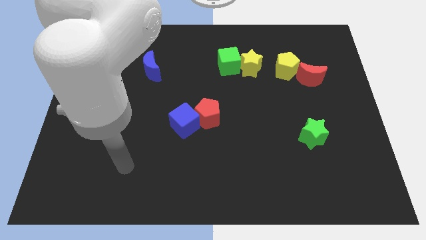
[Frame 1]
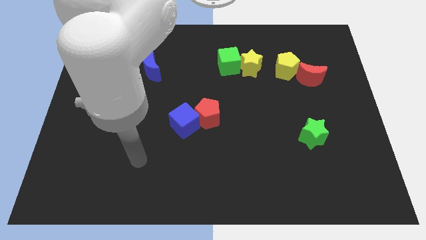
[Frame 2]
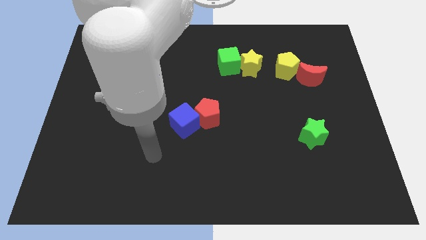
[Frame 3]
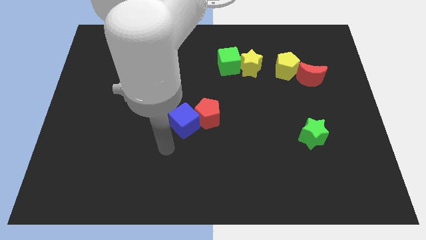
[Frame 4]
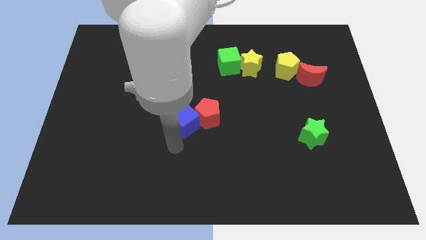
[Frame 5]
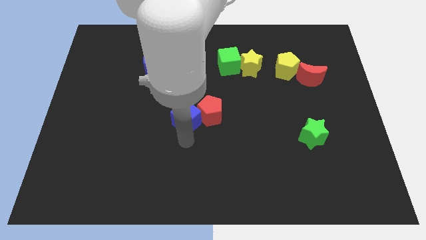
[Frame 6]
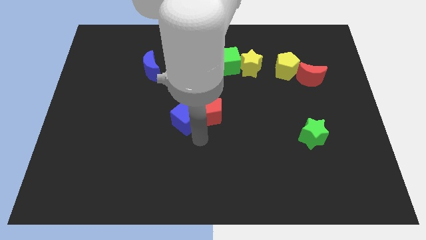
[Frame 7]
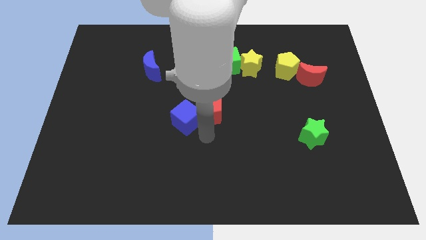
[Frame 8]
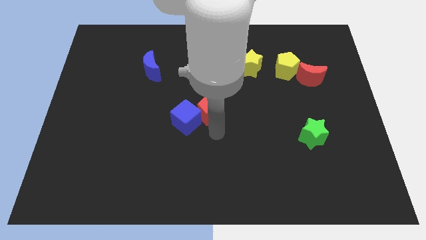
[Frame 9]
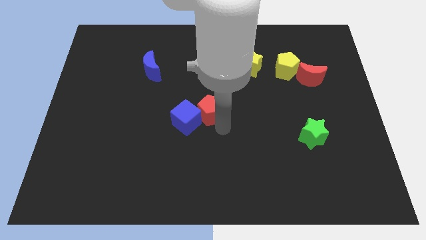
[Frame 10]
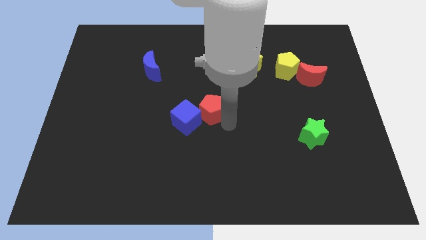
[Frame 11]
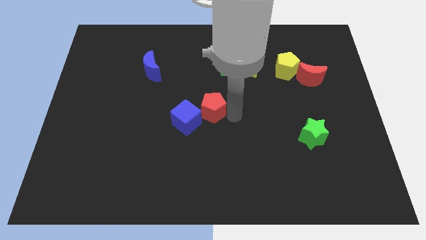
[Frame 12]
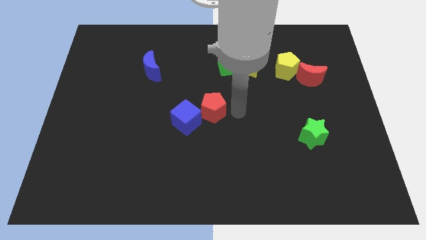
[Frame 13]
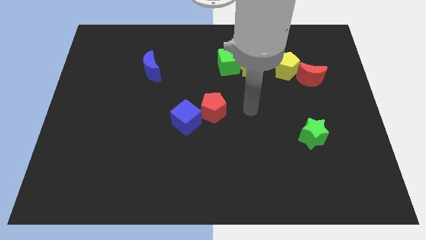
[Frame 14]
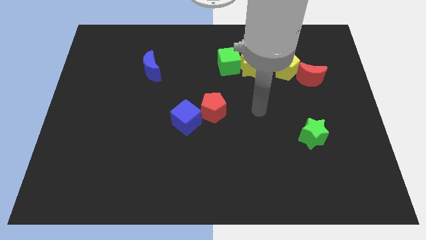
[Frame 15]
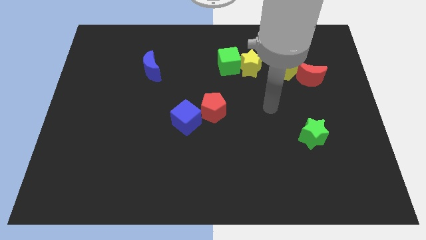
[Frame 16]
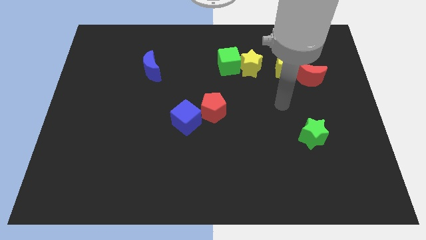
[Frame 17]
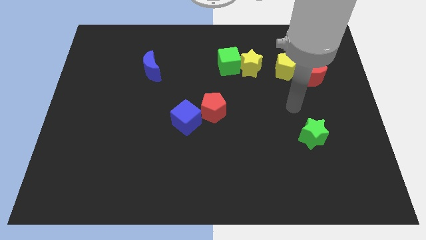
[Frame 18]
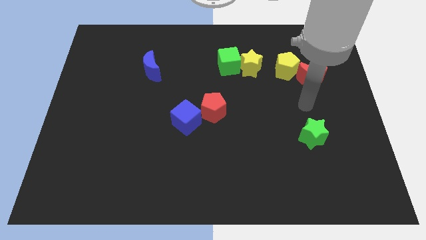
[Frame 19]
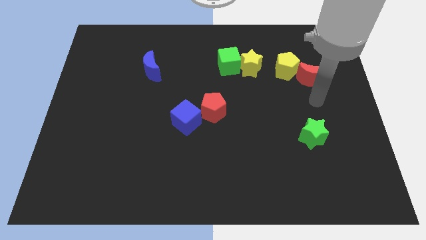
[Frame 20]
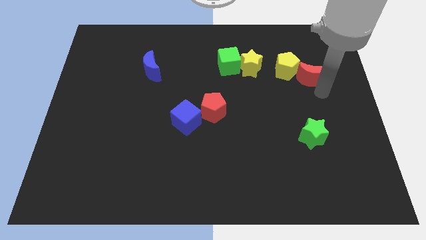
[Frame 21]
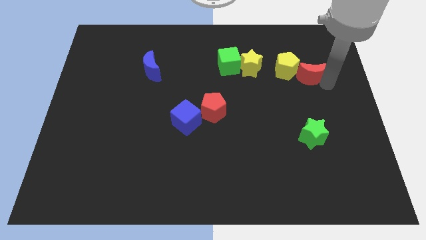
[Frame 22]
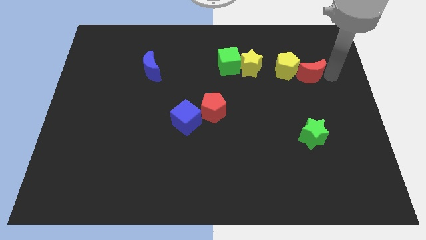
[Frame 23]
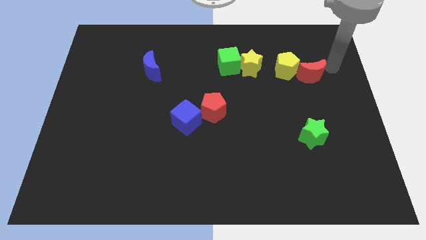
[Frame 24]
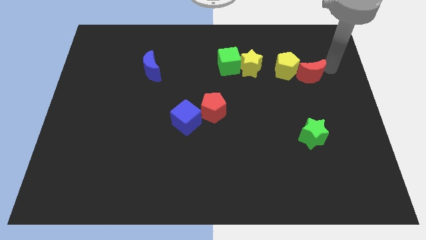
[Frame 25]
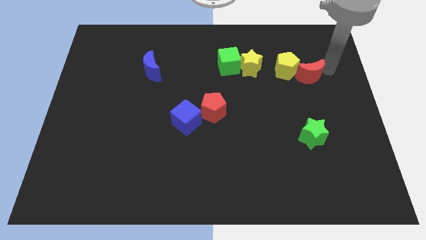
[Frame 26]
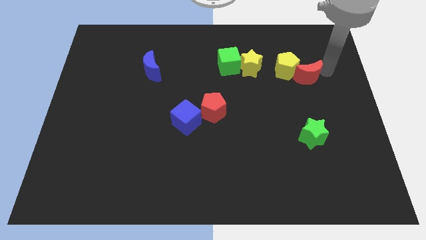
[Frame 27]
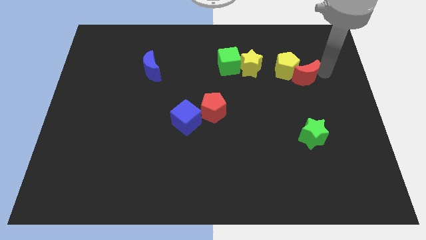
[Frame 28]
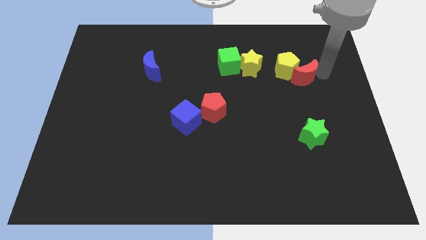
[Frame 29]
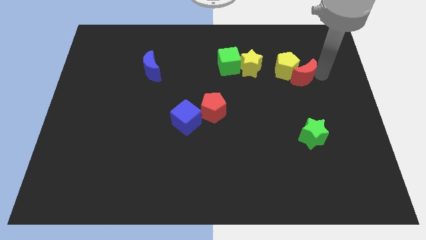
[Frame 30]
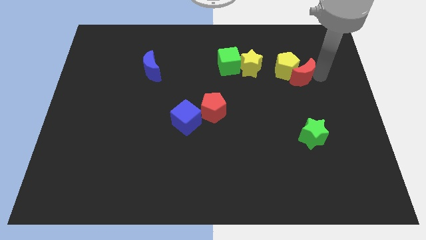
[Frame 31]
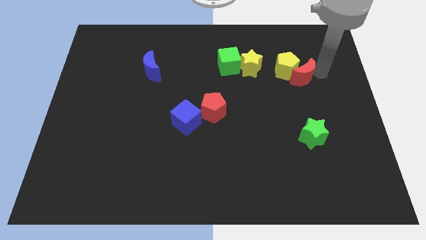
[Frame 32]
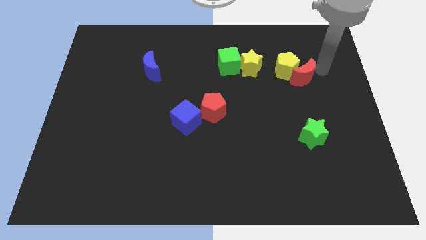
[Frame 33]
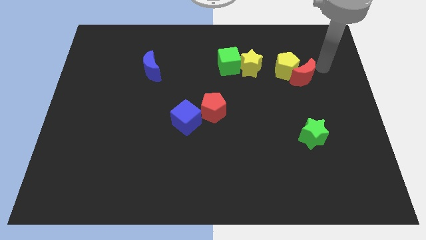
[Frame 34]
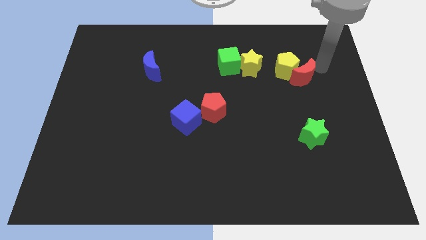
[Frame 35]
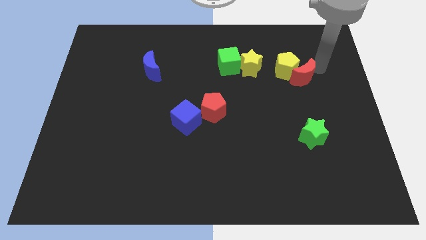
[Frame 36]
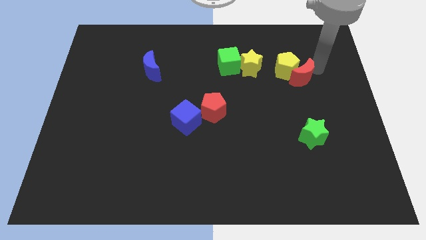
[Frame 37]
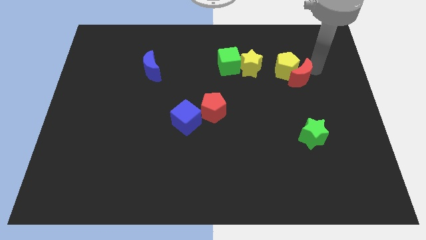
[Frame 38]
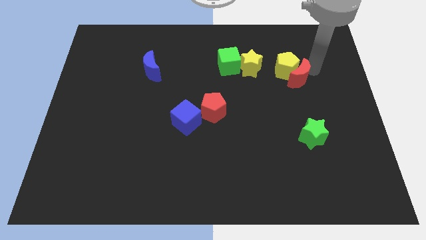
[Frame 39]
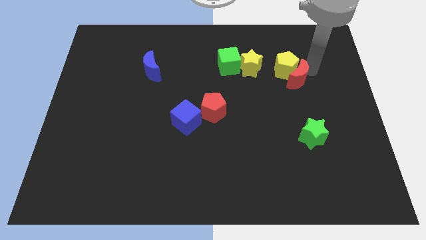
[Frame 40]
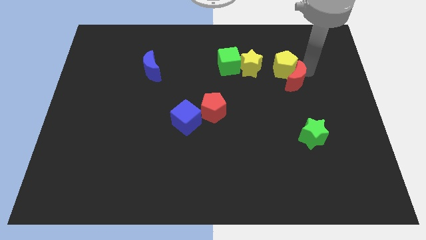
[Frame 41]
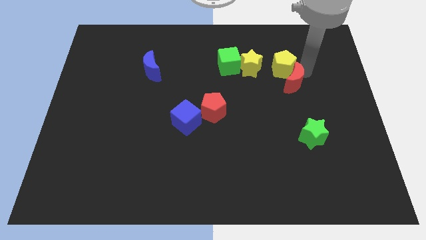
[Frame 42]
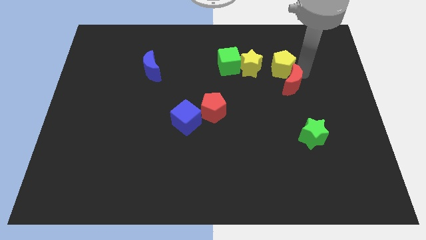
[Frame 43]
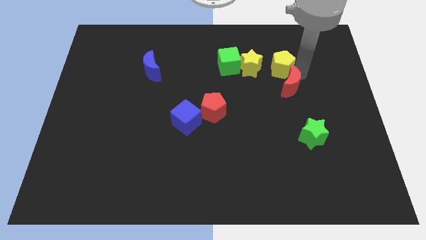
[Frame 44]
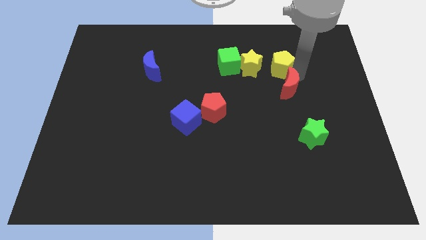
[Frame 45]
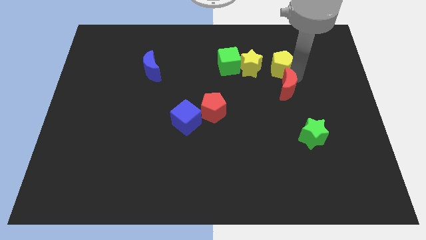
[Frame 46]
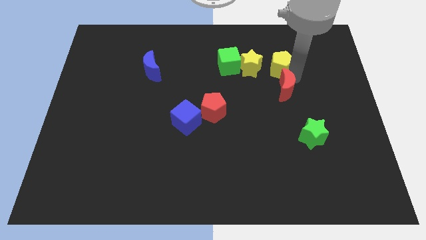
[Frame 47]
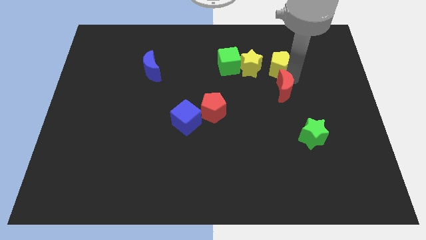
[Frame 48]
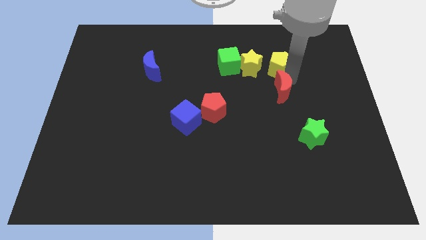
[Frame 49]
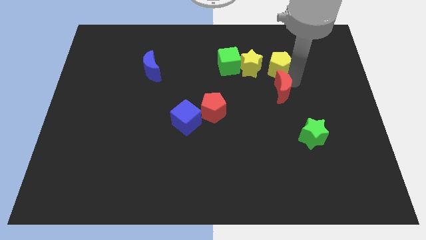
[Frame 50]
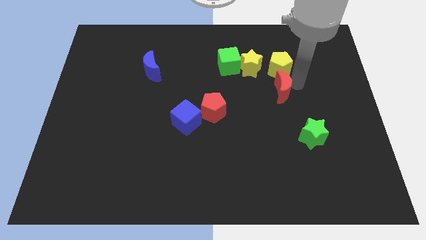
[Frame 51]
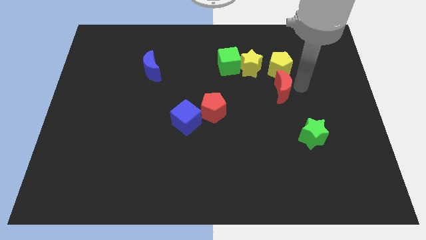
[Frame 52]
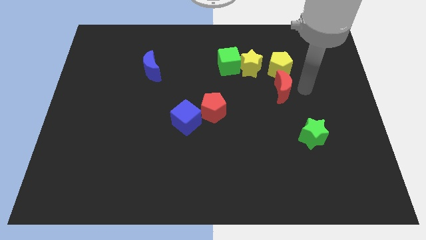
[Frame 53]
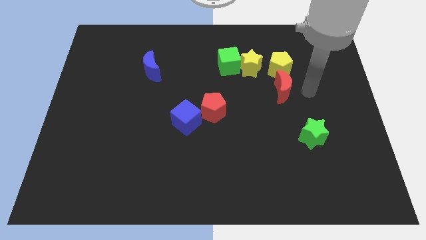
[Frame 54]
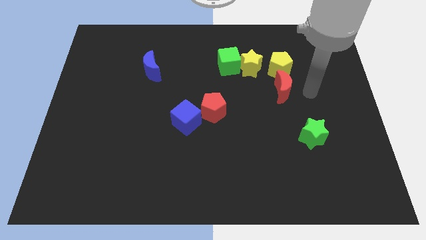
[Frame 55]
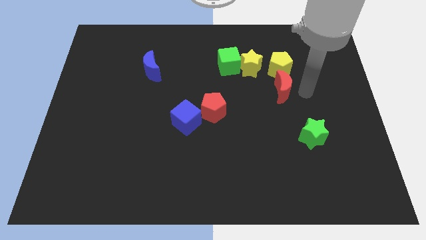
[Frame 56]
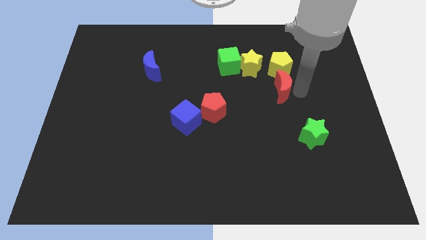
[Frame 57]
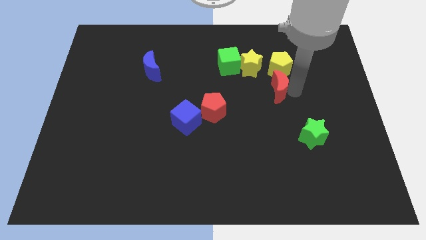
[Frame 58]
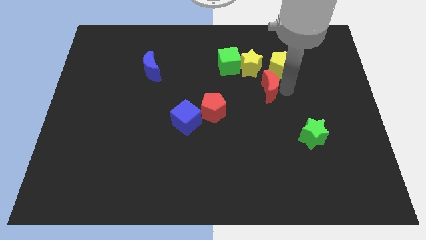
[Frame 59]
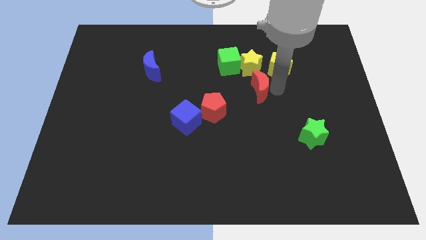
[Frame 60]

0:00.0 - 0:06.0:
move the red moon to the center of the board
